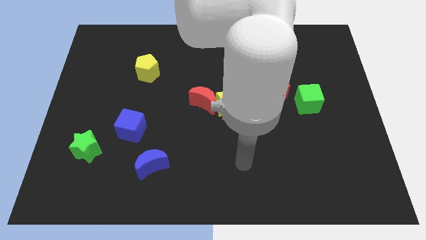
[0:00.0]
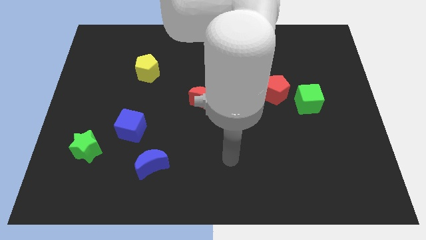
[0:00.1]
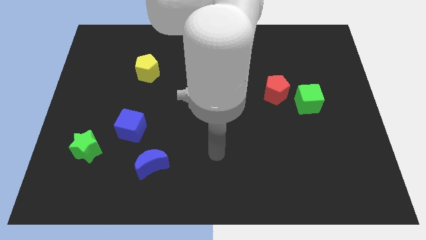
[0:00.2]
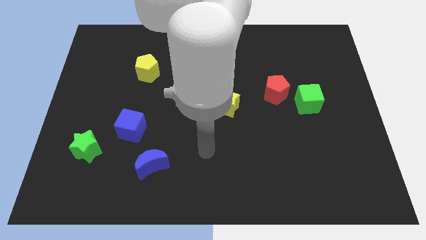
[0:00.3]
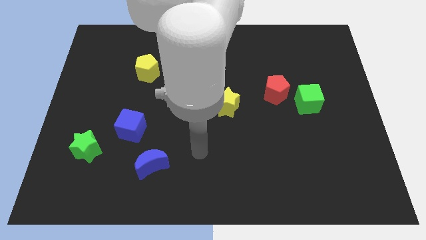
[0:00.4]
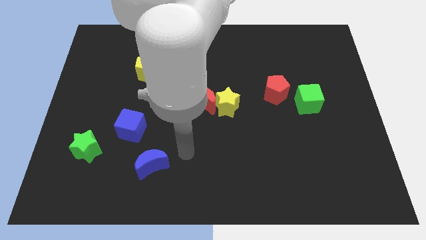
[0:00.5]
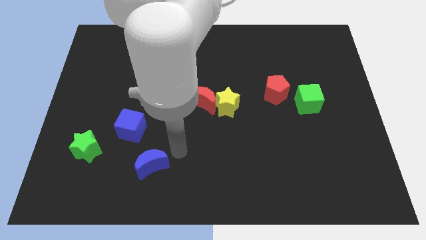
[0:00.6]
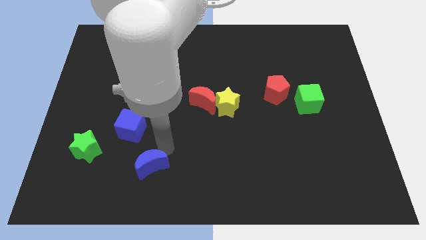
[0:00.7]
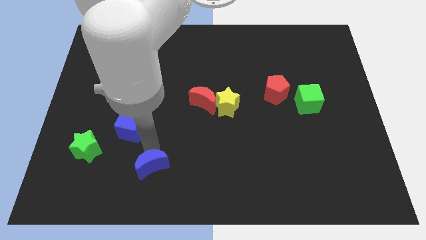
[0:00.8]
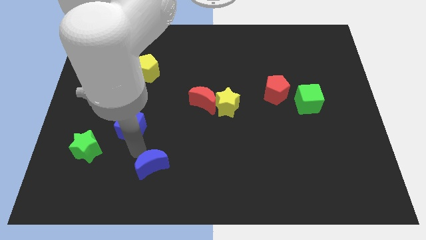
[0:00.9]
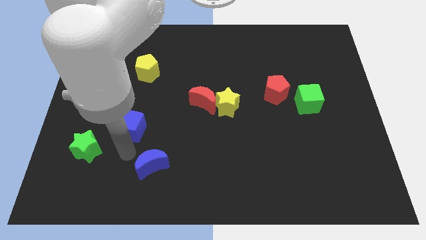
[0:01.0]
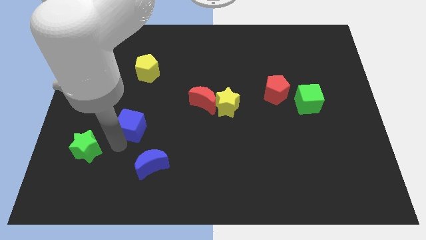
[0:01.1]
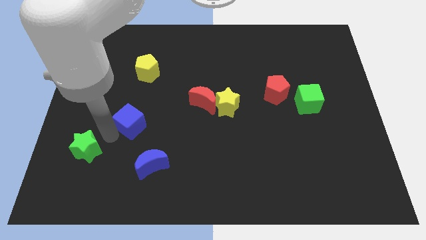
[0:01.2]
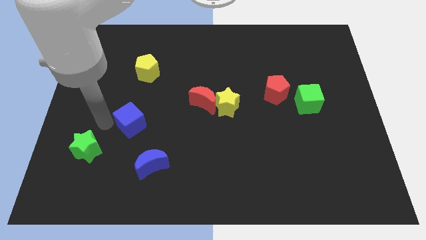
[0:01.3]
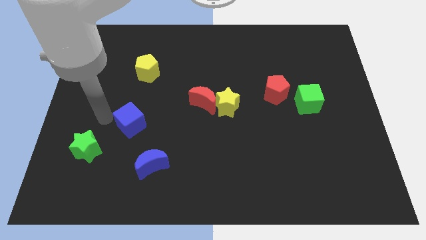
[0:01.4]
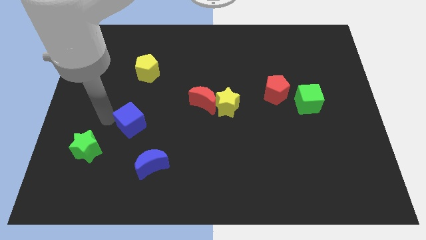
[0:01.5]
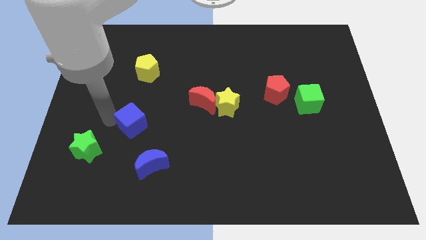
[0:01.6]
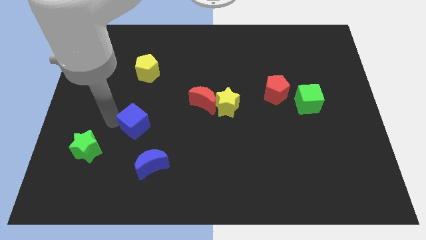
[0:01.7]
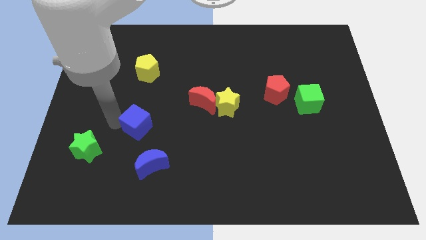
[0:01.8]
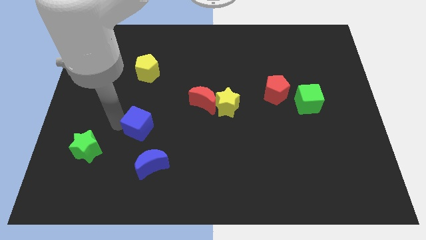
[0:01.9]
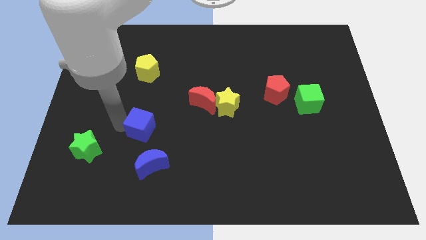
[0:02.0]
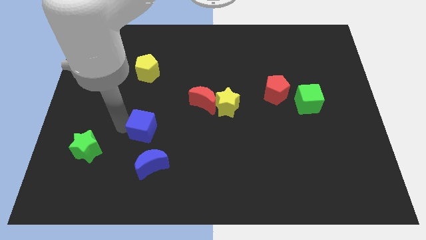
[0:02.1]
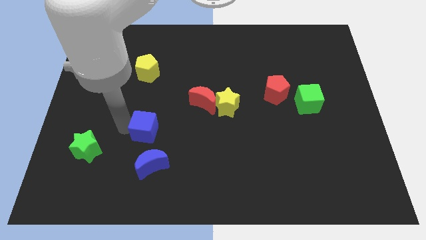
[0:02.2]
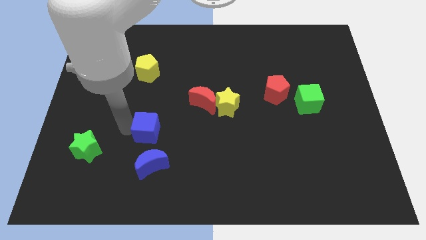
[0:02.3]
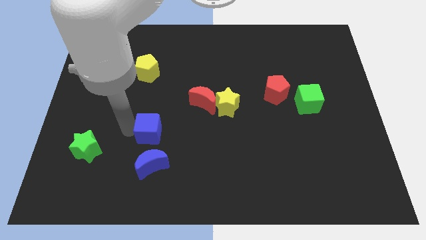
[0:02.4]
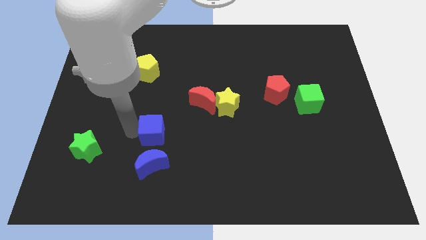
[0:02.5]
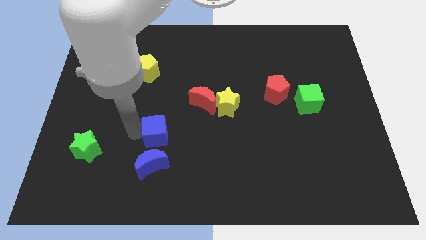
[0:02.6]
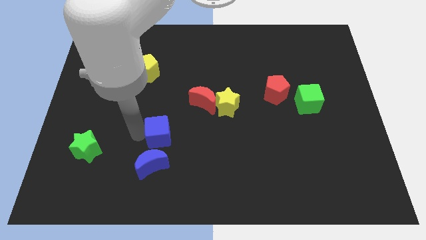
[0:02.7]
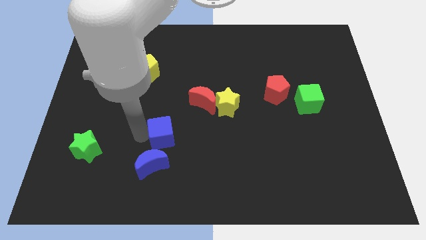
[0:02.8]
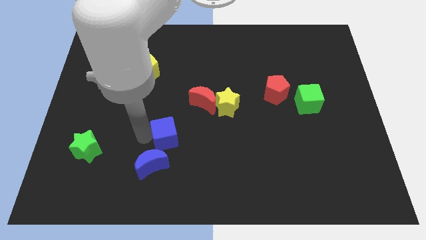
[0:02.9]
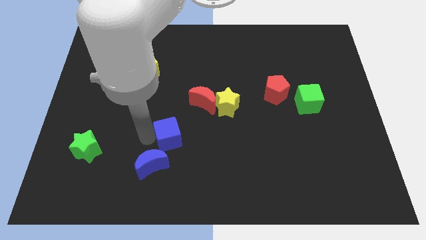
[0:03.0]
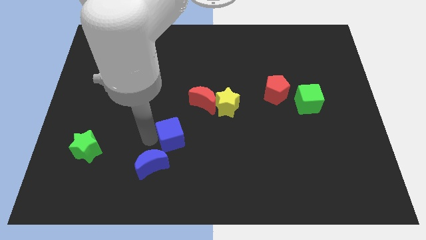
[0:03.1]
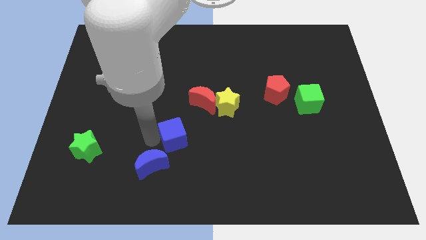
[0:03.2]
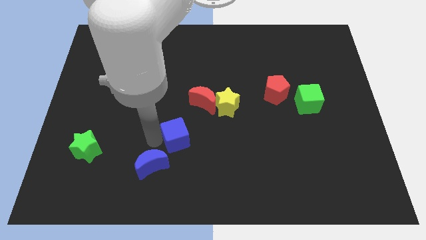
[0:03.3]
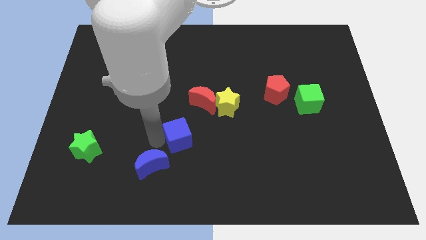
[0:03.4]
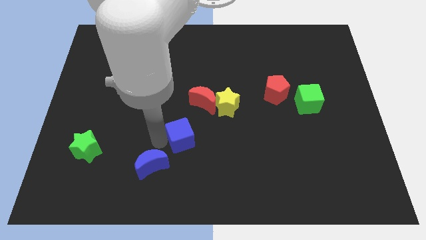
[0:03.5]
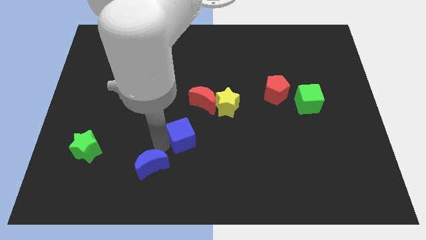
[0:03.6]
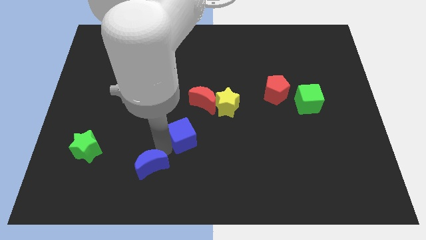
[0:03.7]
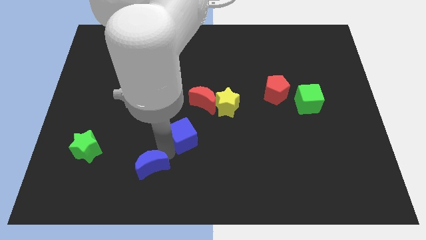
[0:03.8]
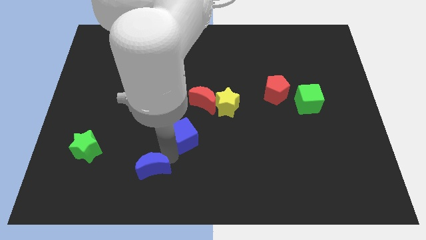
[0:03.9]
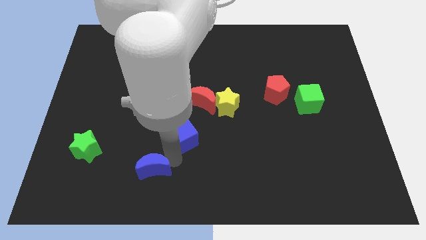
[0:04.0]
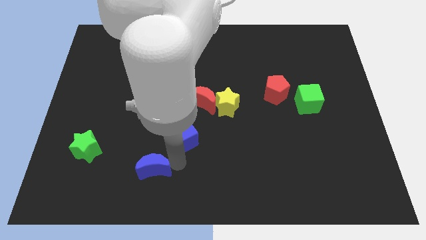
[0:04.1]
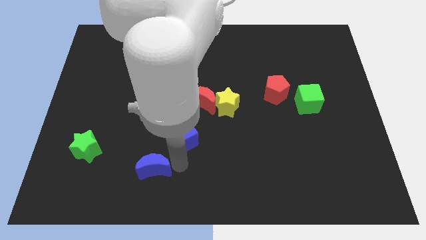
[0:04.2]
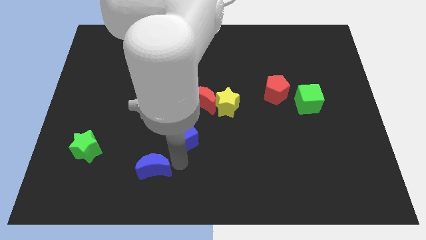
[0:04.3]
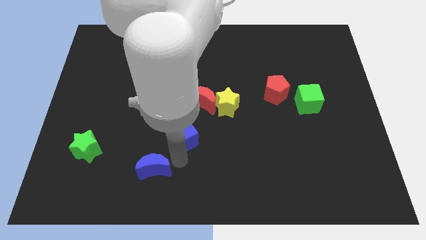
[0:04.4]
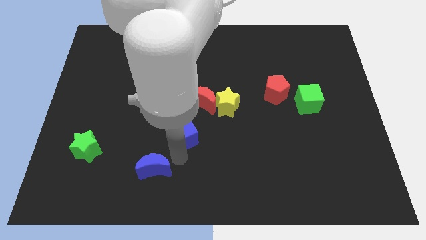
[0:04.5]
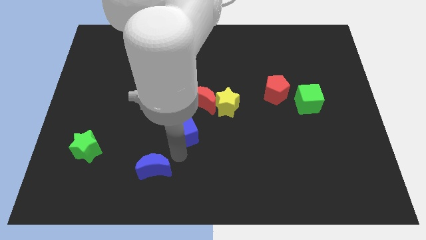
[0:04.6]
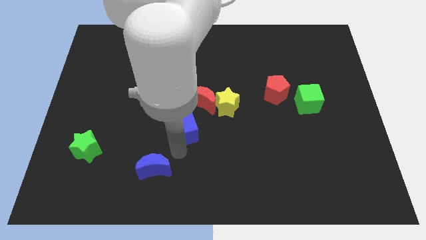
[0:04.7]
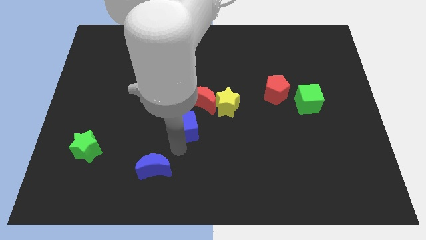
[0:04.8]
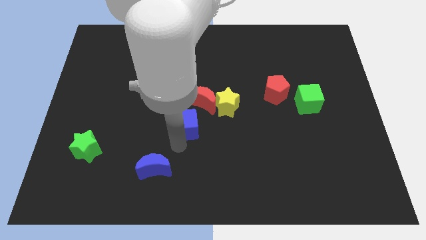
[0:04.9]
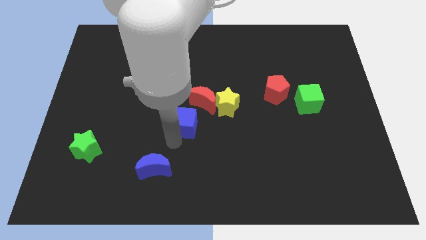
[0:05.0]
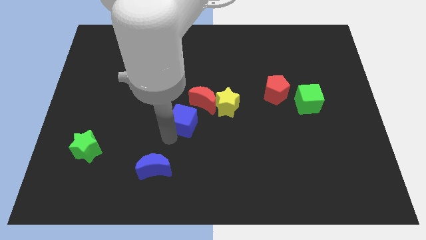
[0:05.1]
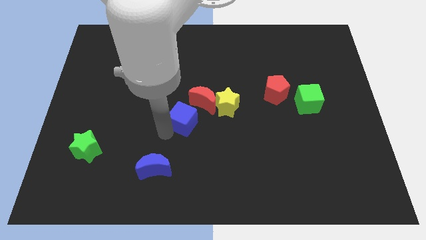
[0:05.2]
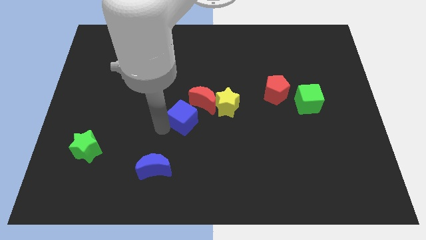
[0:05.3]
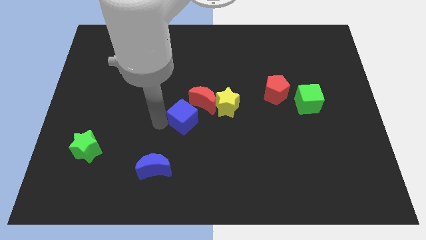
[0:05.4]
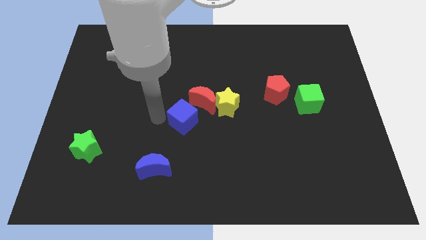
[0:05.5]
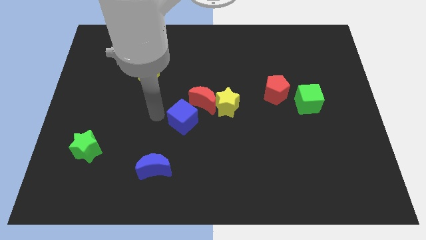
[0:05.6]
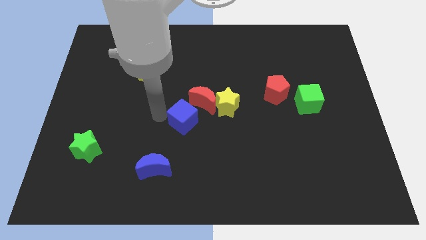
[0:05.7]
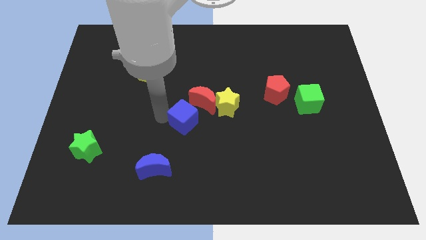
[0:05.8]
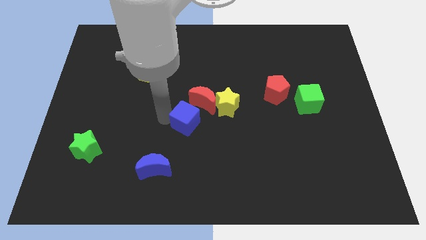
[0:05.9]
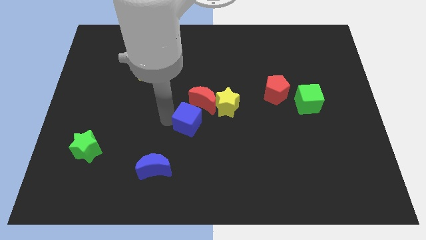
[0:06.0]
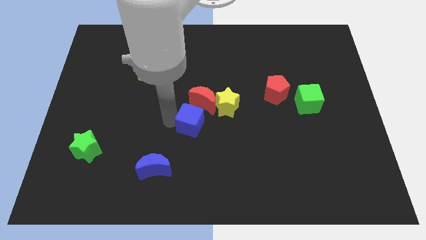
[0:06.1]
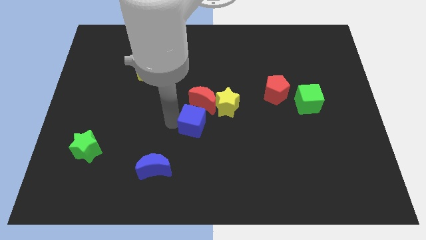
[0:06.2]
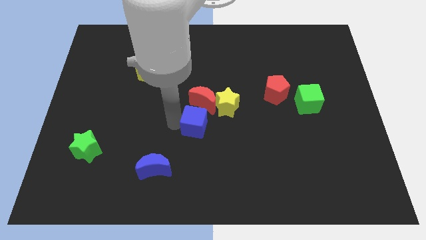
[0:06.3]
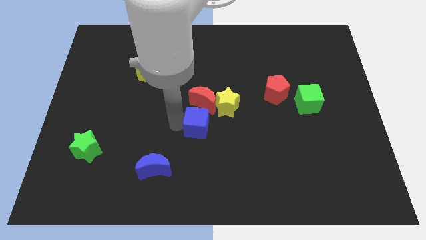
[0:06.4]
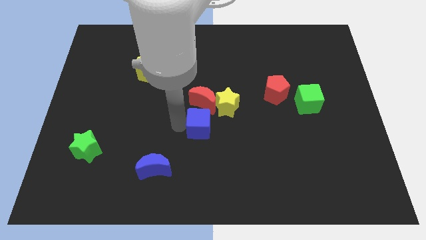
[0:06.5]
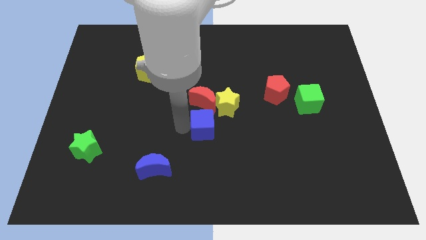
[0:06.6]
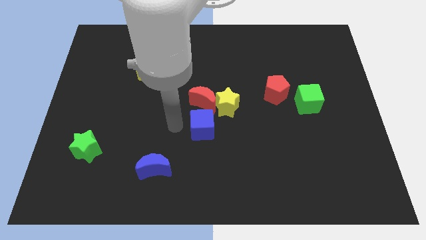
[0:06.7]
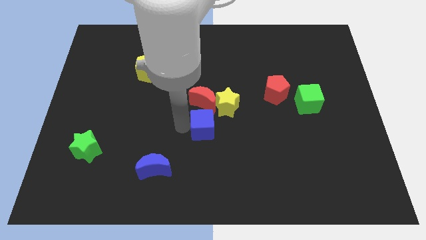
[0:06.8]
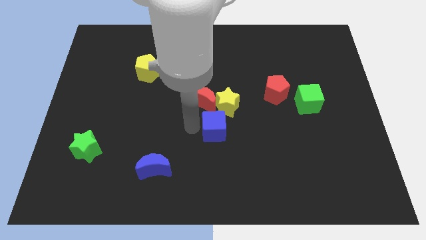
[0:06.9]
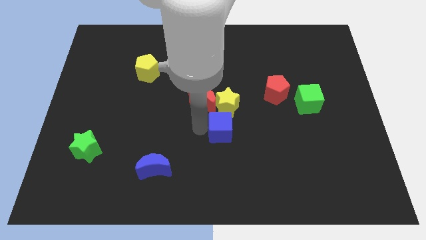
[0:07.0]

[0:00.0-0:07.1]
move the blue cube right

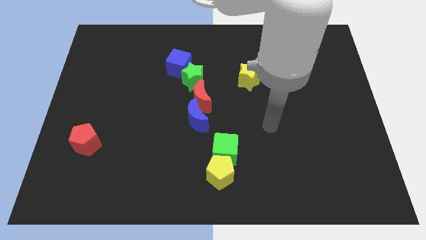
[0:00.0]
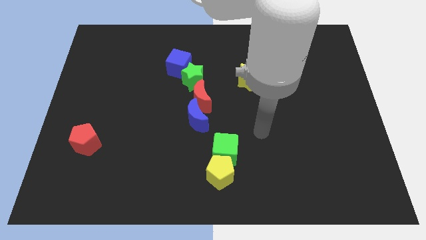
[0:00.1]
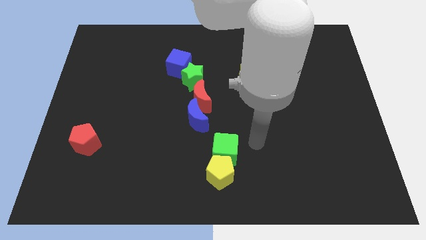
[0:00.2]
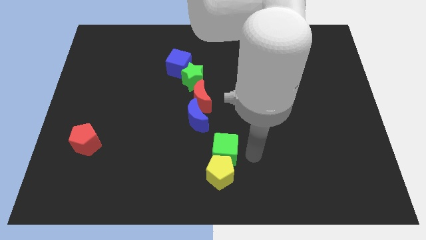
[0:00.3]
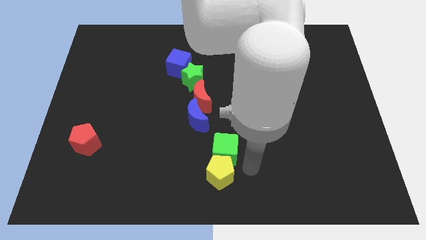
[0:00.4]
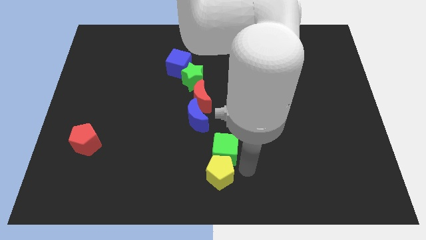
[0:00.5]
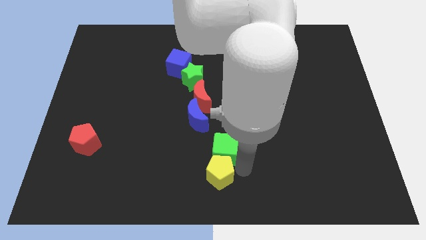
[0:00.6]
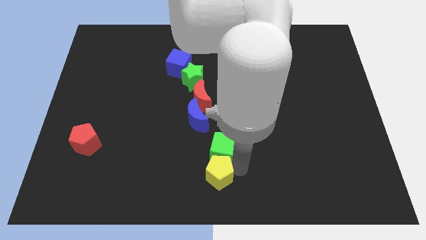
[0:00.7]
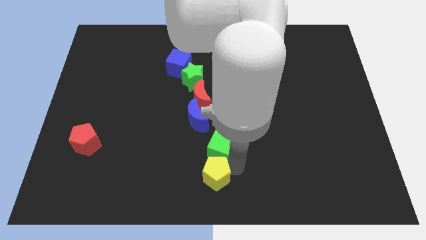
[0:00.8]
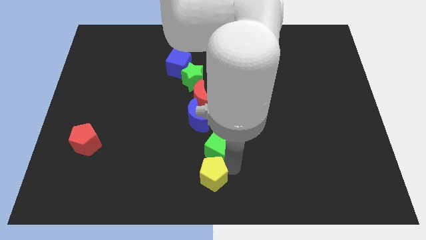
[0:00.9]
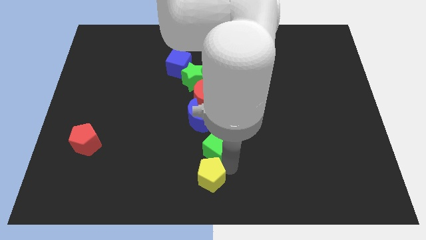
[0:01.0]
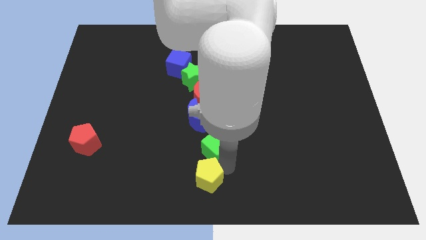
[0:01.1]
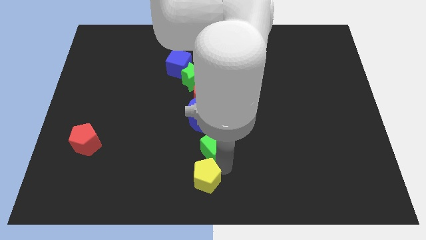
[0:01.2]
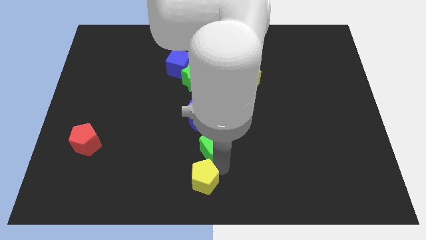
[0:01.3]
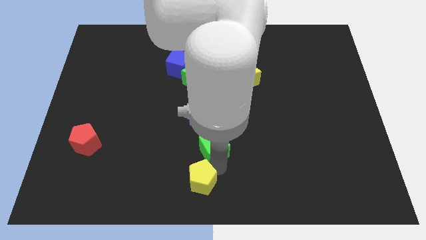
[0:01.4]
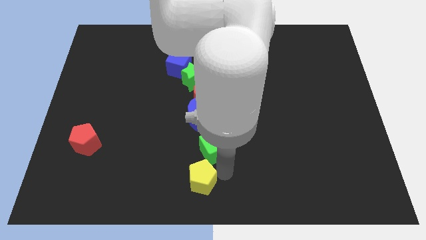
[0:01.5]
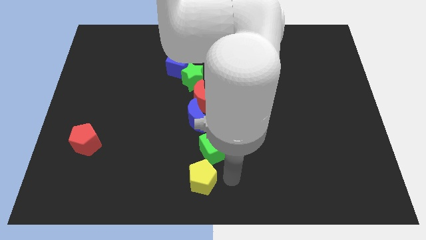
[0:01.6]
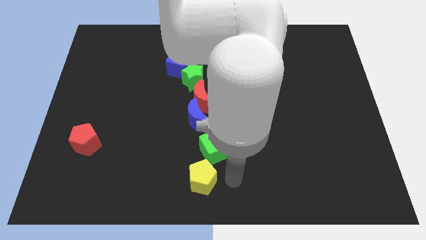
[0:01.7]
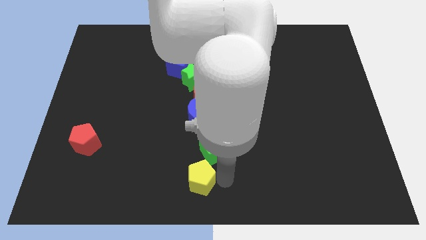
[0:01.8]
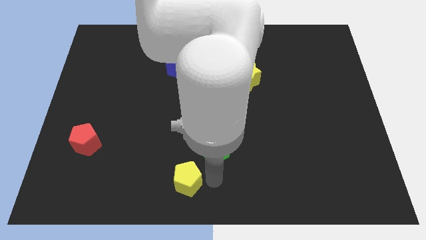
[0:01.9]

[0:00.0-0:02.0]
slide the yellow pentagon slightly left
